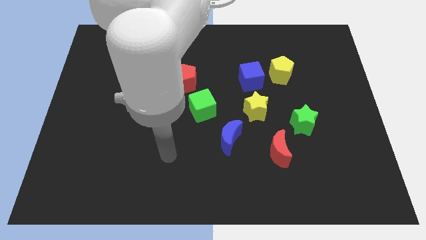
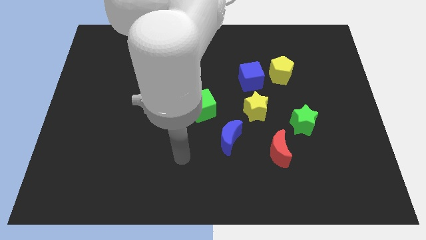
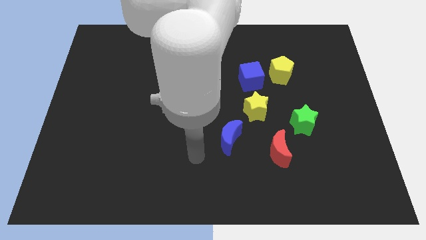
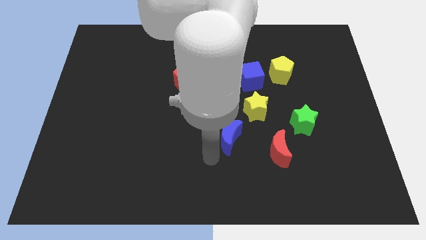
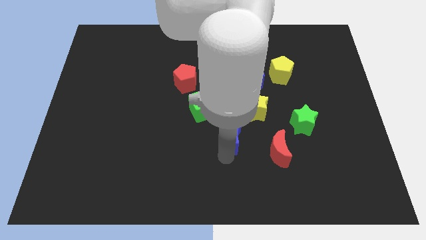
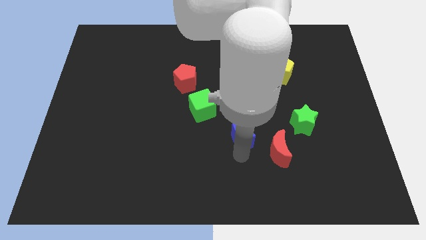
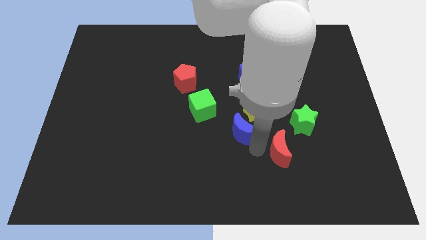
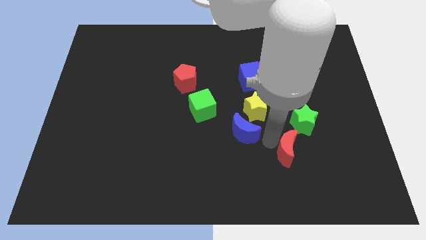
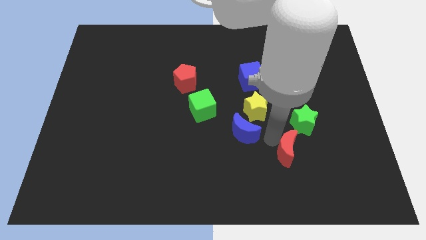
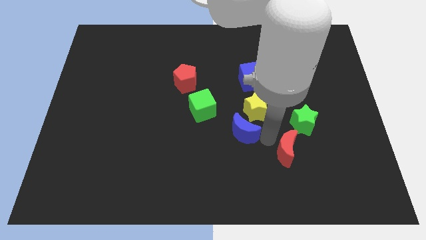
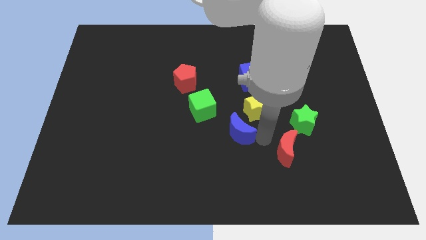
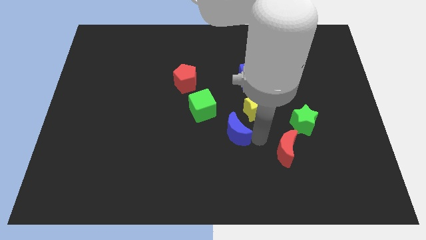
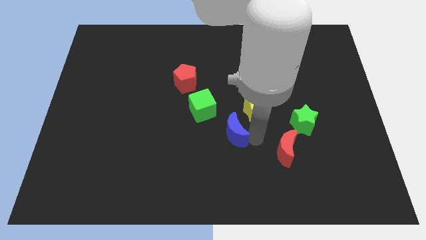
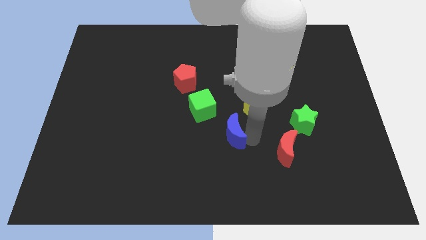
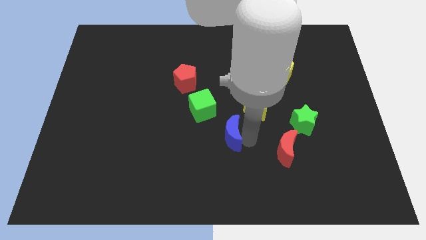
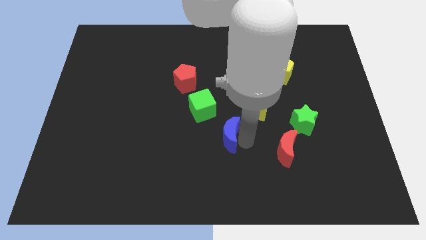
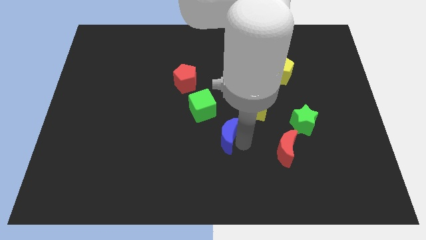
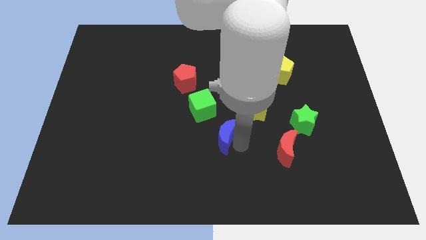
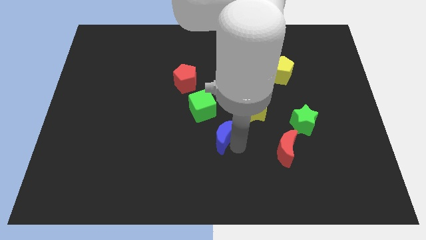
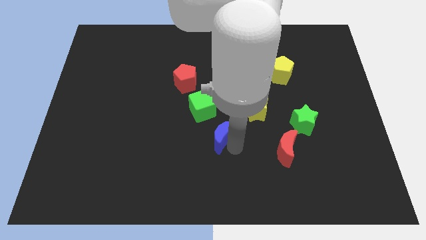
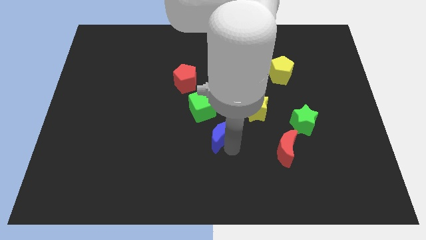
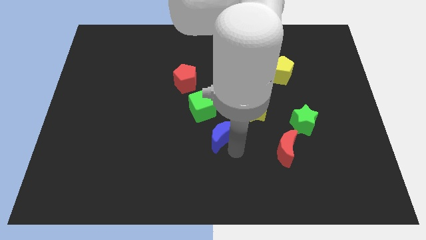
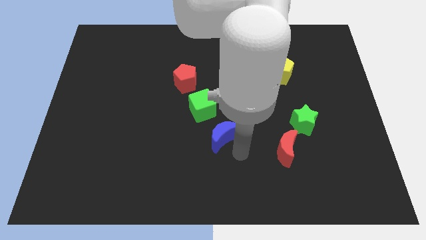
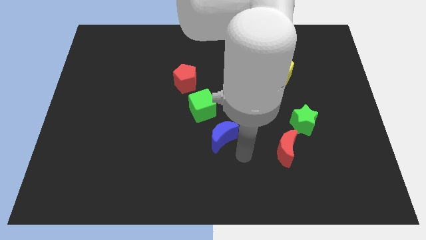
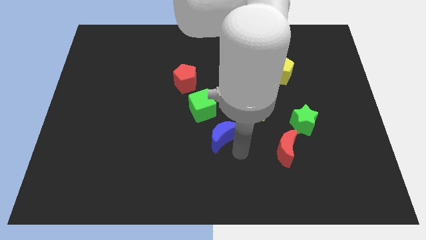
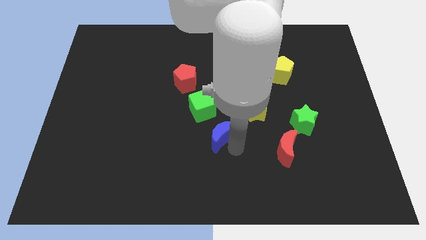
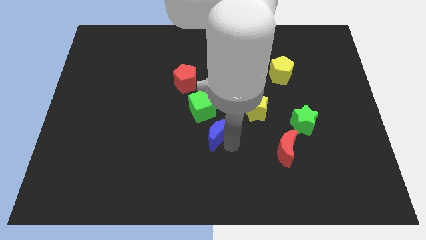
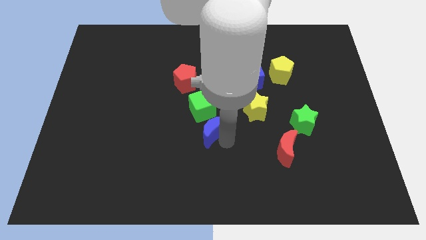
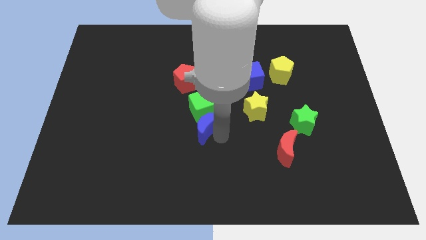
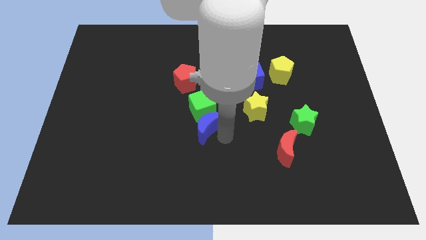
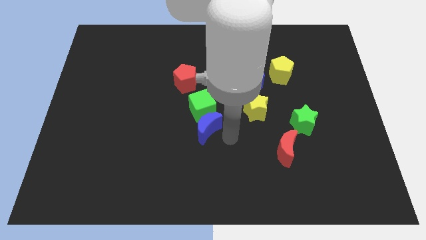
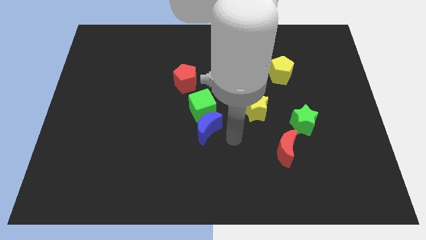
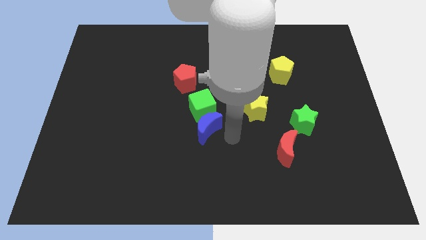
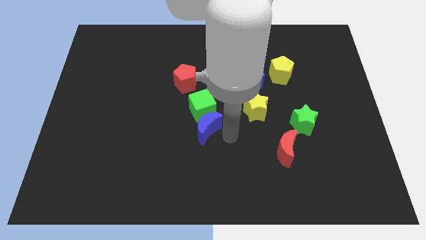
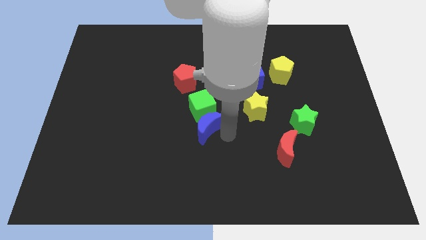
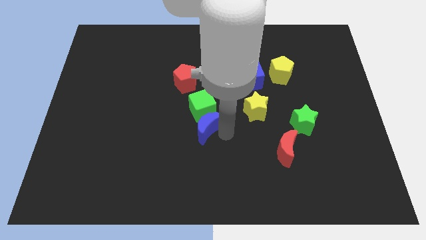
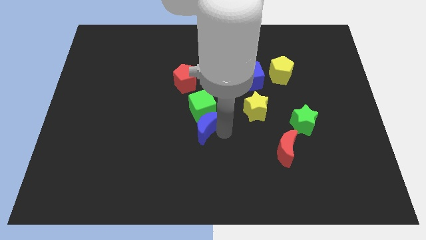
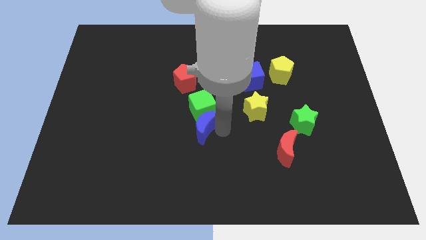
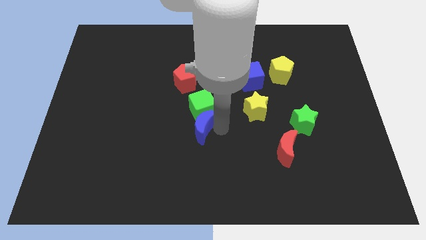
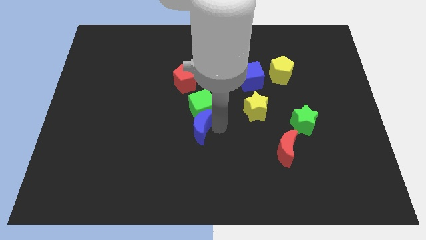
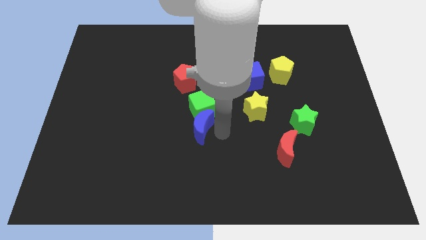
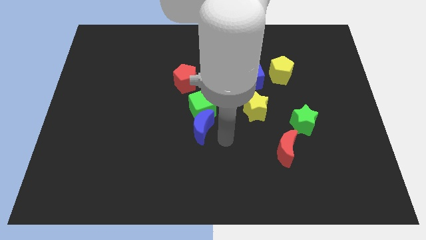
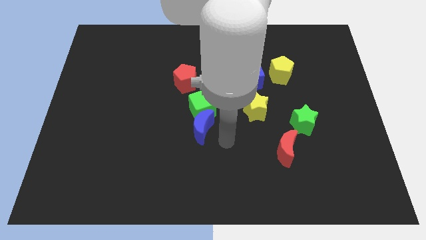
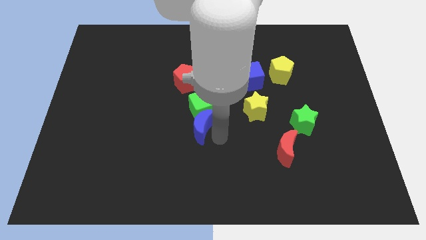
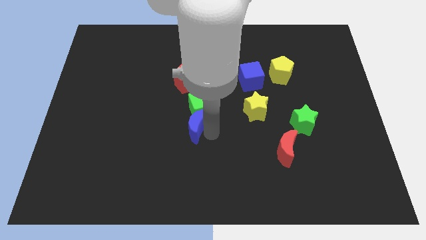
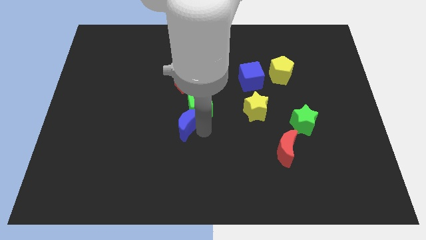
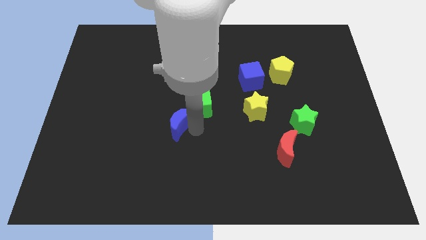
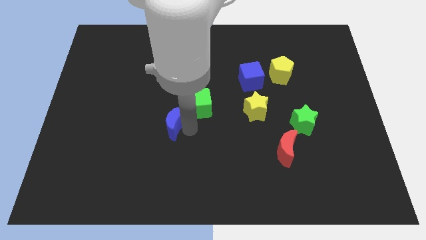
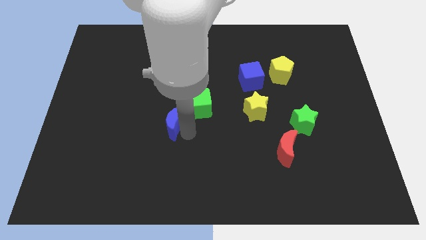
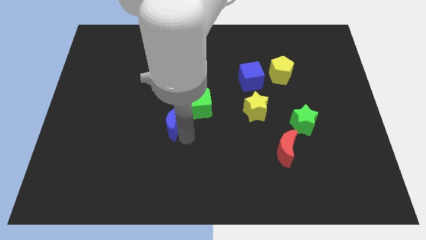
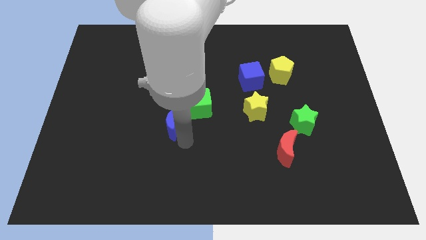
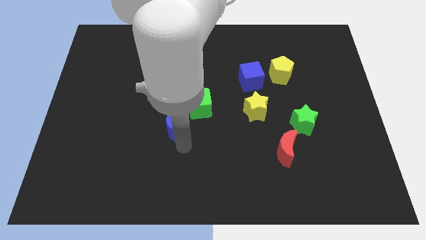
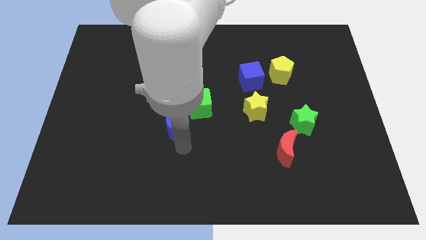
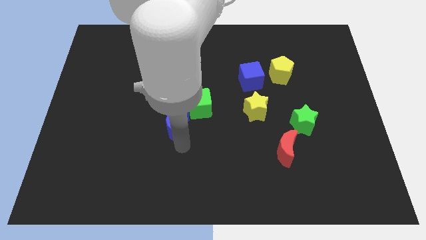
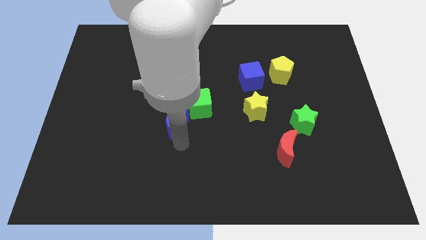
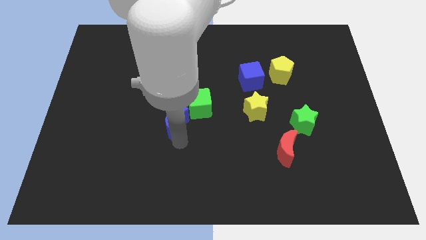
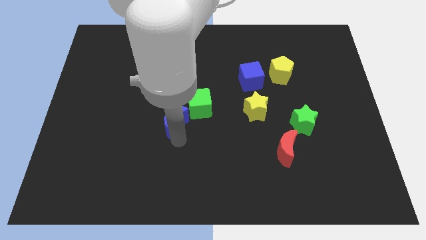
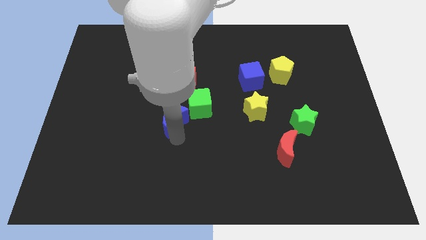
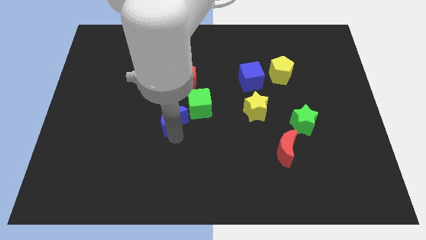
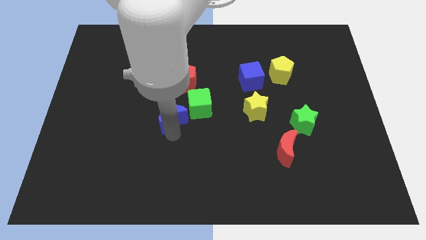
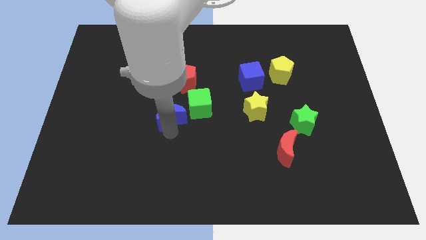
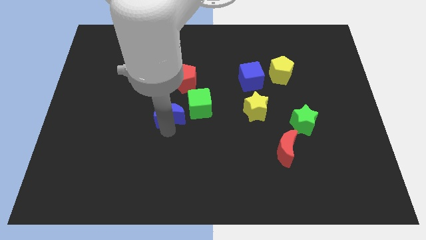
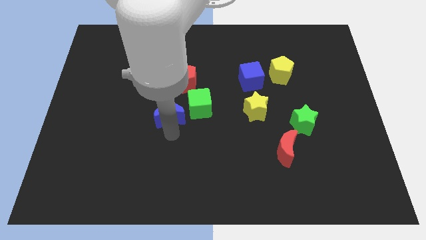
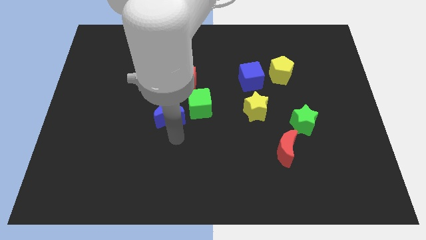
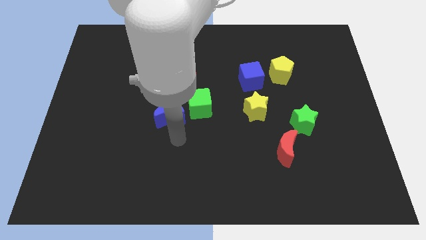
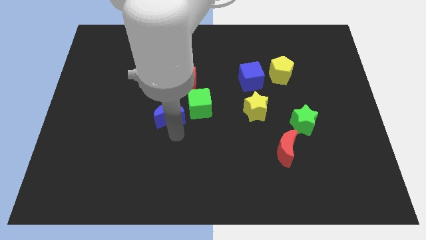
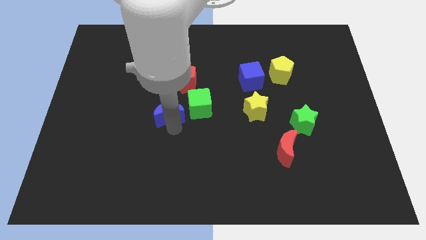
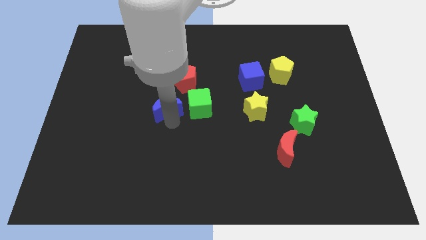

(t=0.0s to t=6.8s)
push the blue moon to the bottom left side of the red pentagon

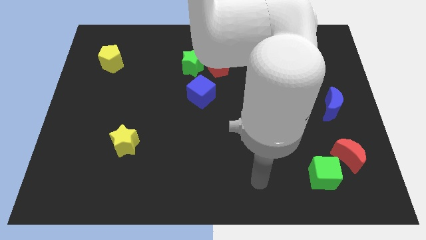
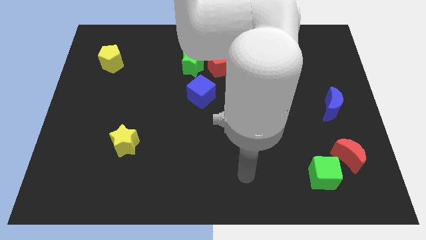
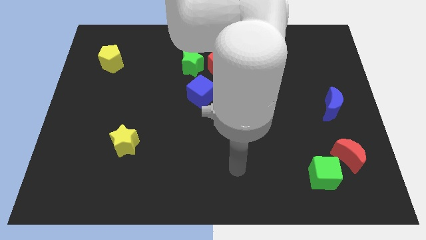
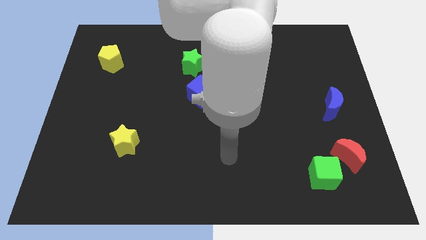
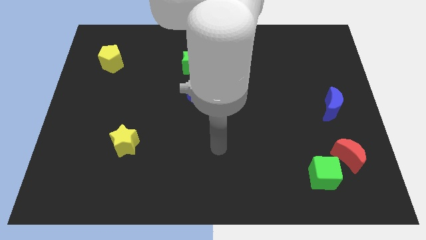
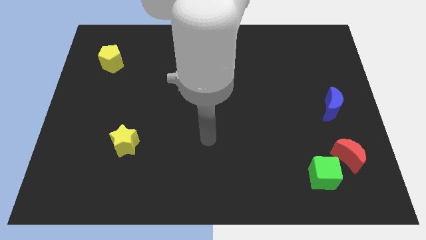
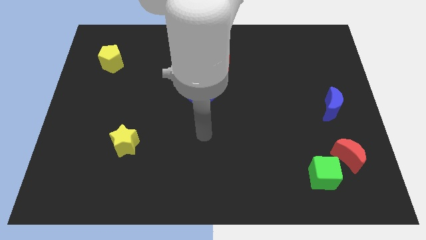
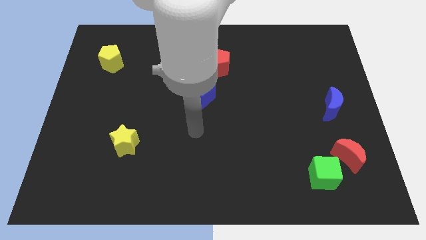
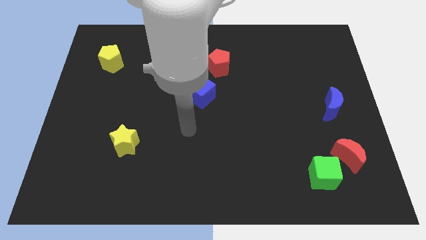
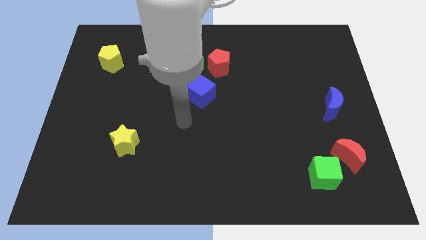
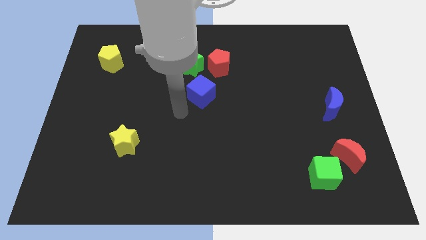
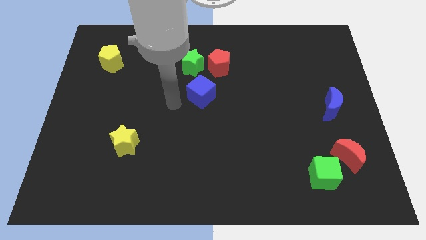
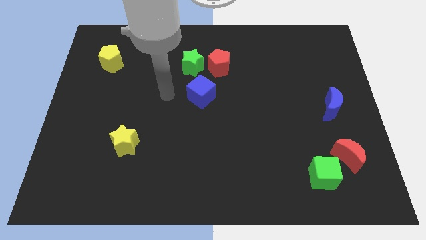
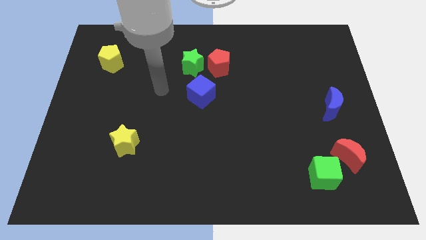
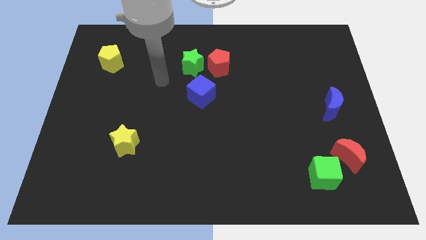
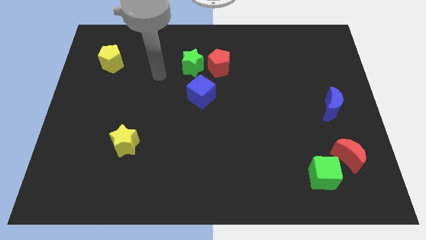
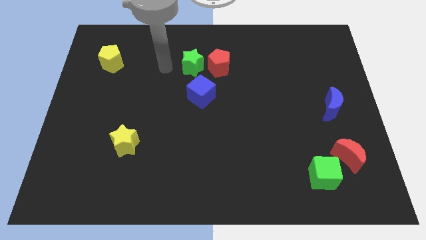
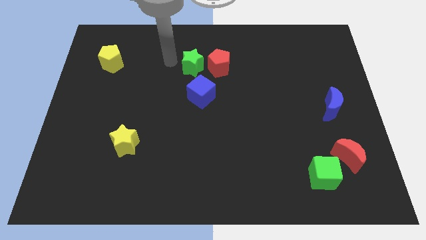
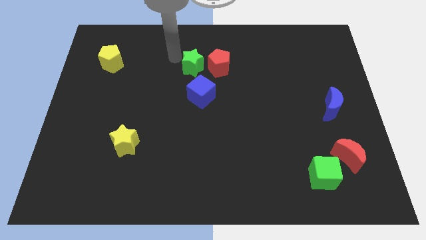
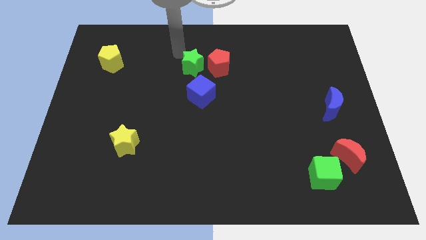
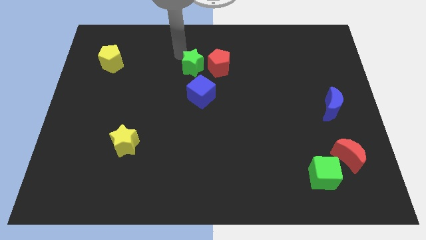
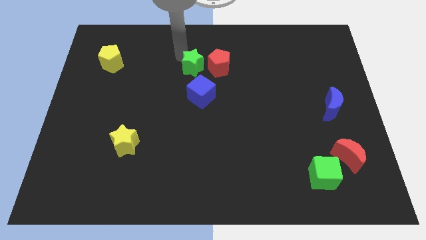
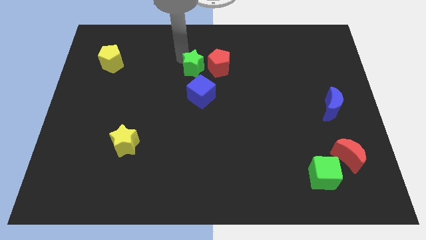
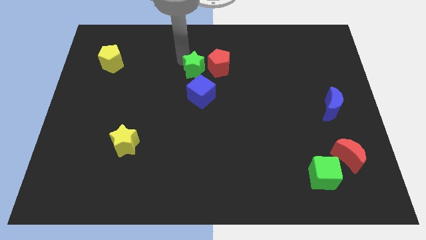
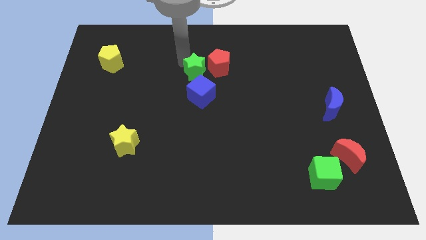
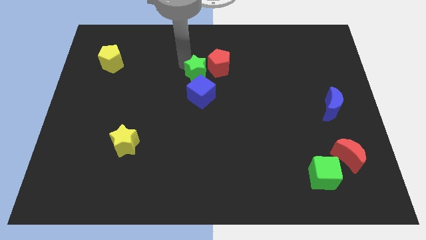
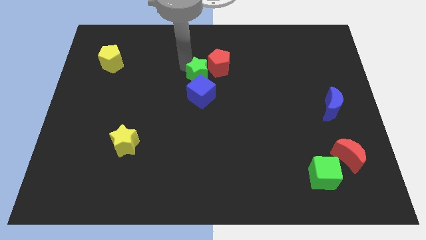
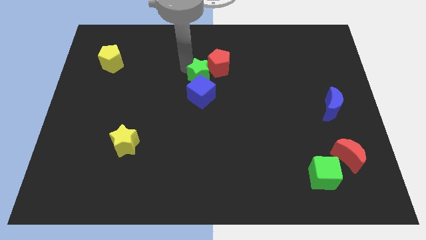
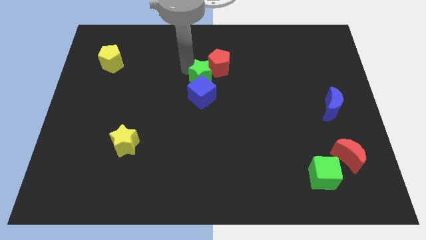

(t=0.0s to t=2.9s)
put the green star to the bottom of the red pentagon
